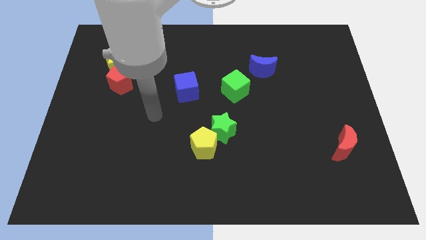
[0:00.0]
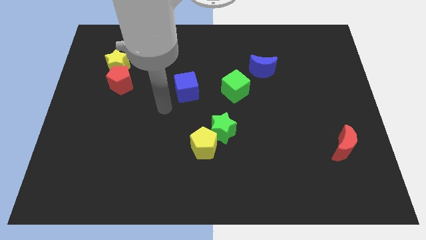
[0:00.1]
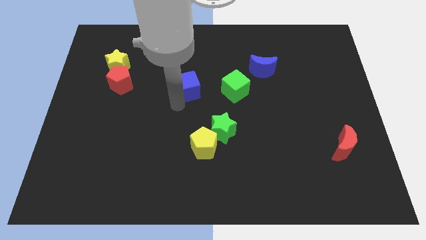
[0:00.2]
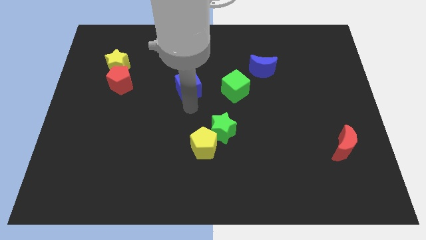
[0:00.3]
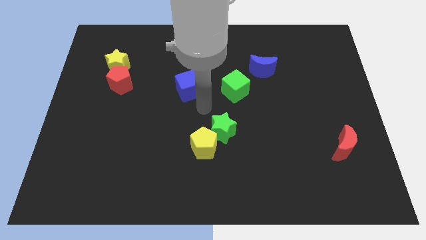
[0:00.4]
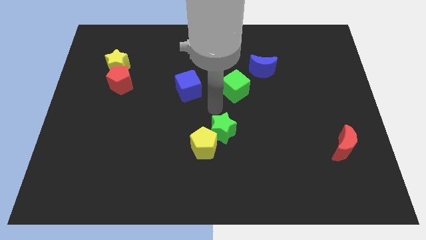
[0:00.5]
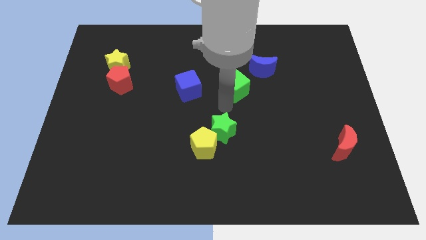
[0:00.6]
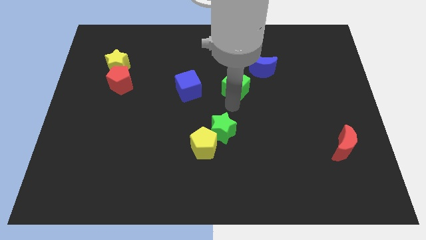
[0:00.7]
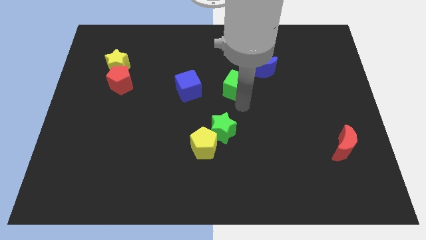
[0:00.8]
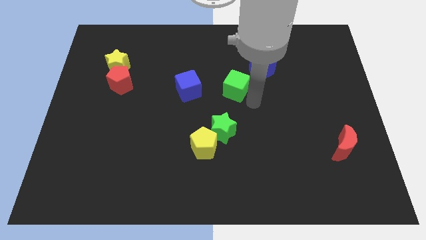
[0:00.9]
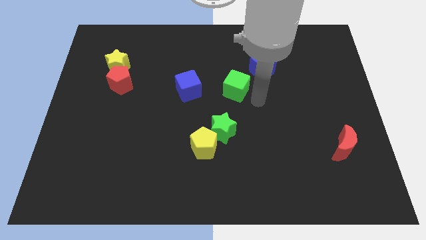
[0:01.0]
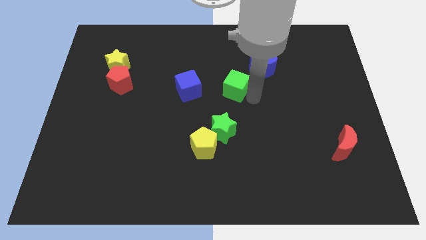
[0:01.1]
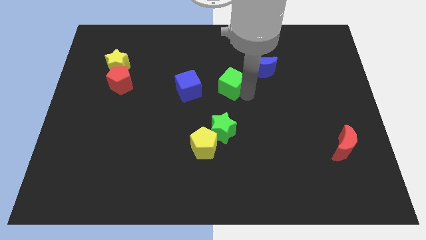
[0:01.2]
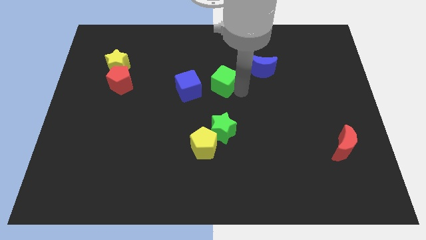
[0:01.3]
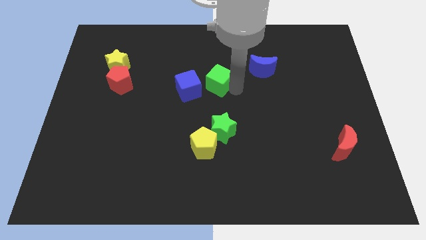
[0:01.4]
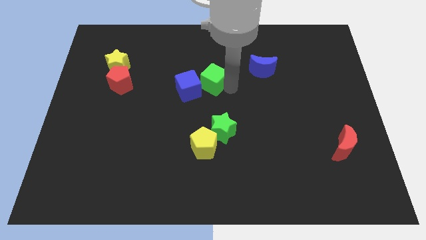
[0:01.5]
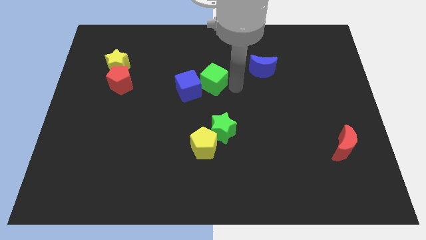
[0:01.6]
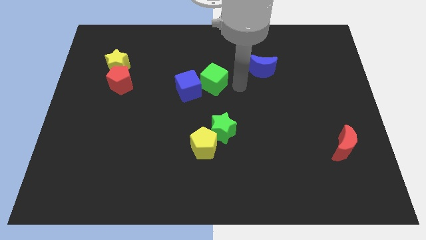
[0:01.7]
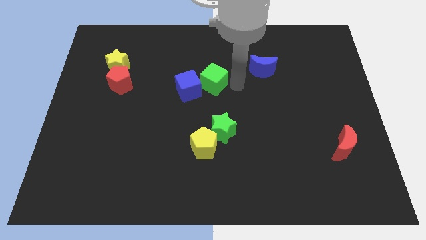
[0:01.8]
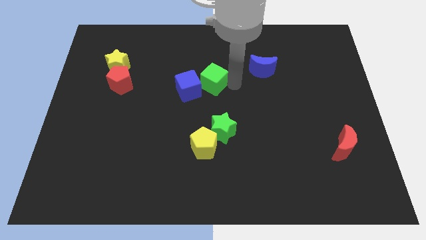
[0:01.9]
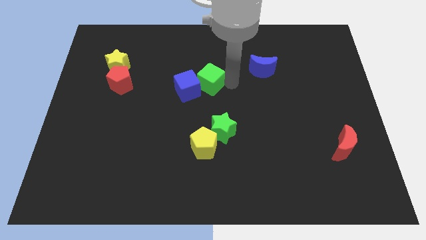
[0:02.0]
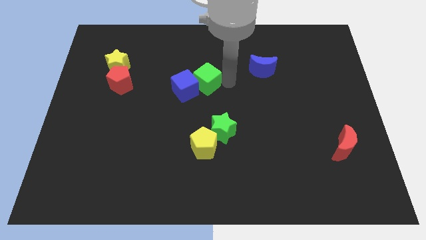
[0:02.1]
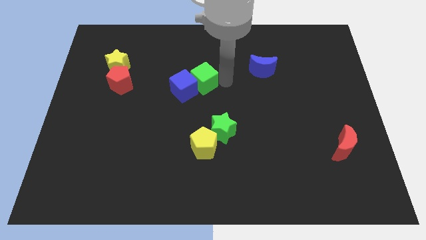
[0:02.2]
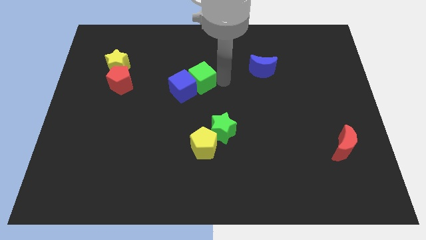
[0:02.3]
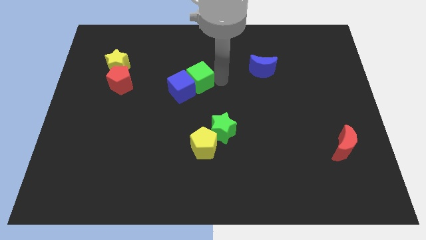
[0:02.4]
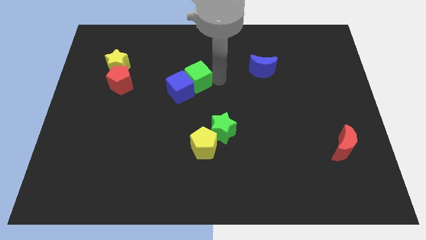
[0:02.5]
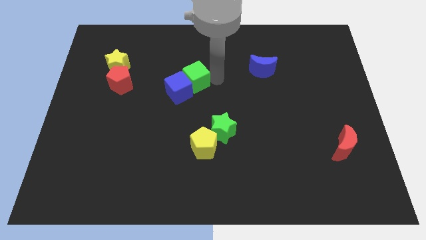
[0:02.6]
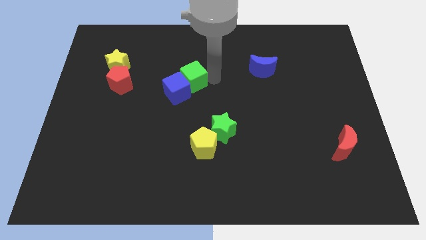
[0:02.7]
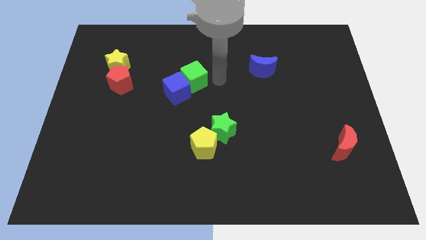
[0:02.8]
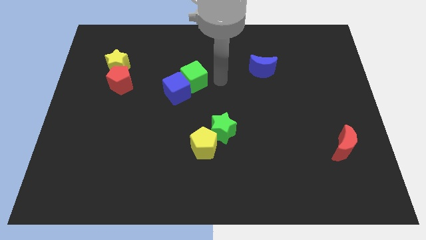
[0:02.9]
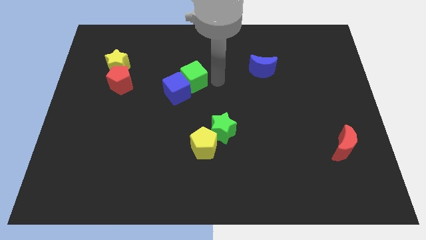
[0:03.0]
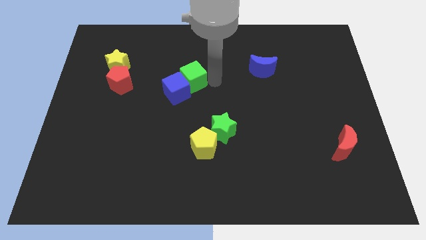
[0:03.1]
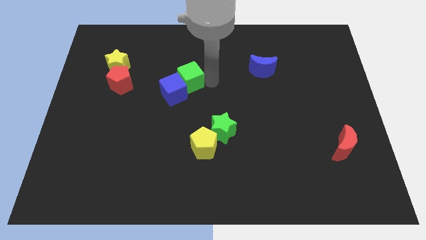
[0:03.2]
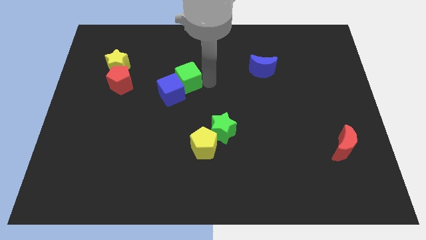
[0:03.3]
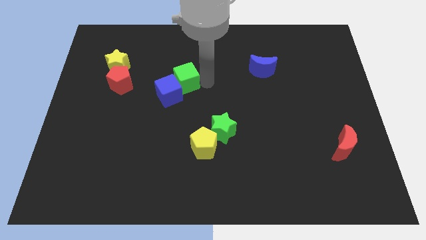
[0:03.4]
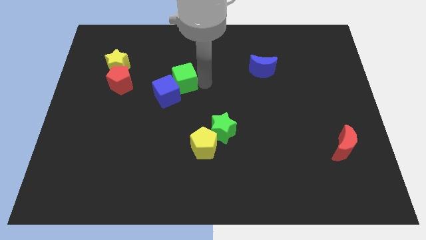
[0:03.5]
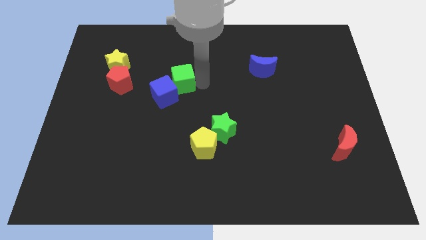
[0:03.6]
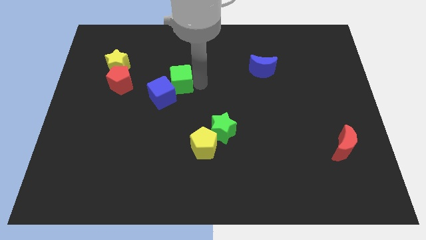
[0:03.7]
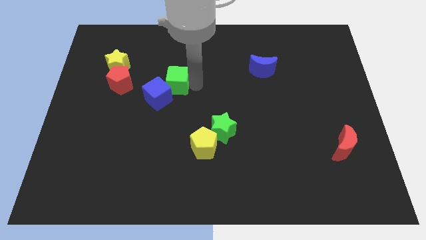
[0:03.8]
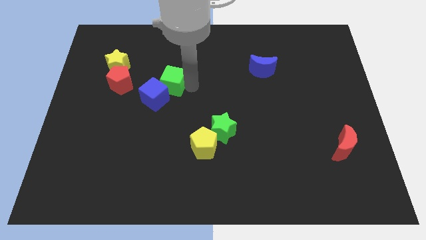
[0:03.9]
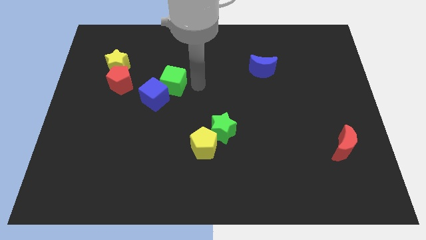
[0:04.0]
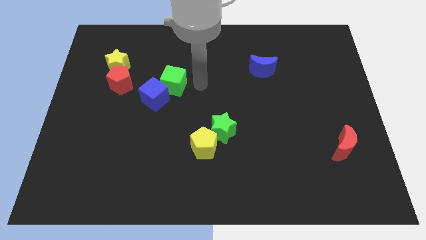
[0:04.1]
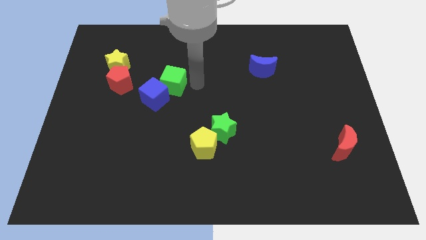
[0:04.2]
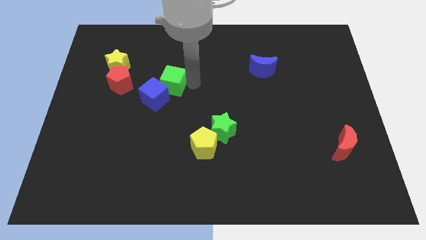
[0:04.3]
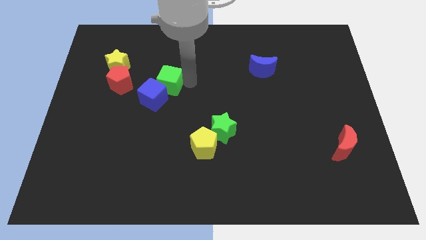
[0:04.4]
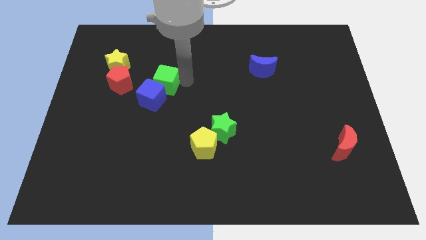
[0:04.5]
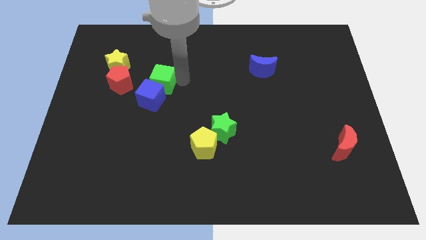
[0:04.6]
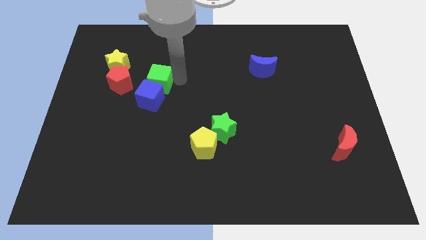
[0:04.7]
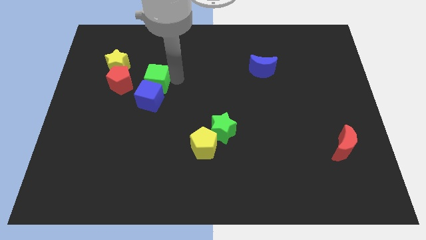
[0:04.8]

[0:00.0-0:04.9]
put the green cube to the bottom right of the yellow star

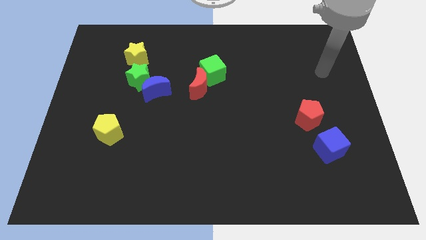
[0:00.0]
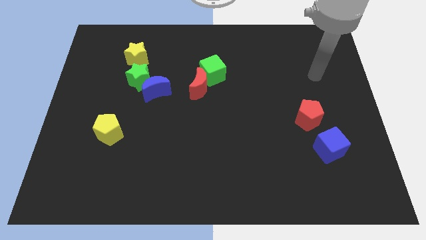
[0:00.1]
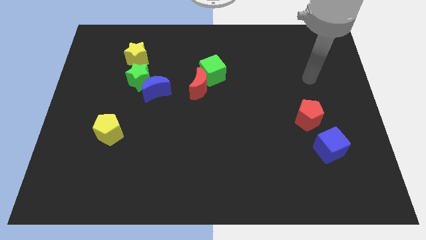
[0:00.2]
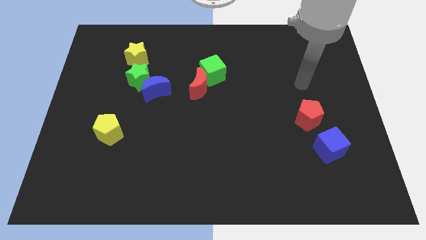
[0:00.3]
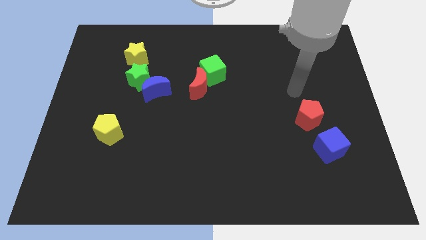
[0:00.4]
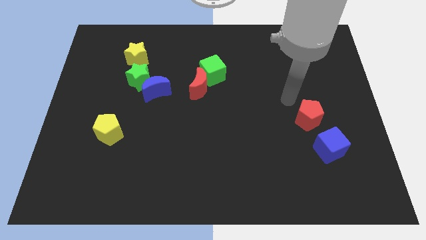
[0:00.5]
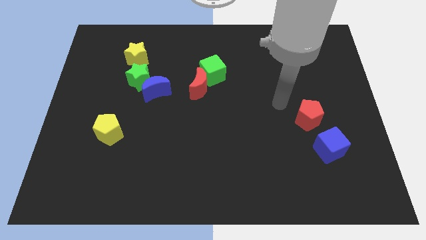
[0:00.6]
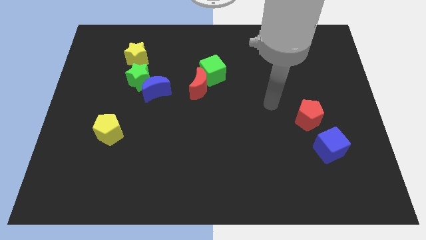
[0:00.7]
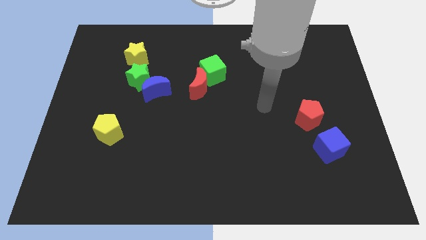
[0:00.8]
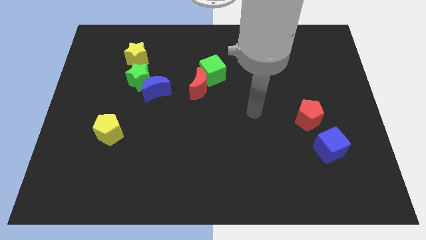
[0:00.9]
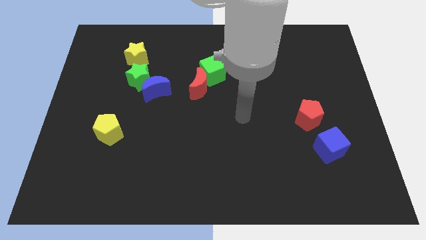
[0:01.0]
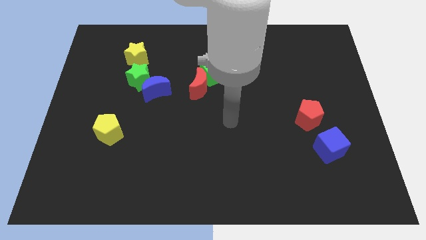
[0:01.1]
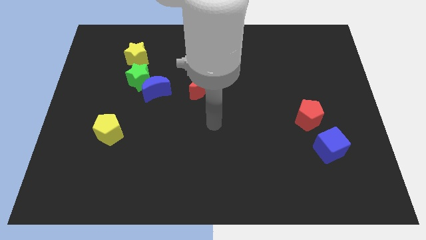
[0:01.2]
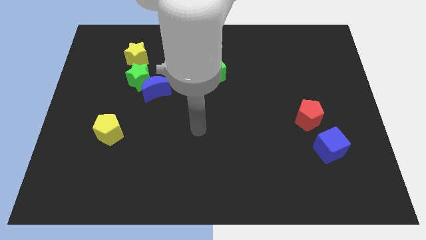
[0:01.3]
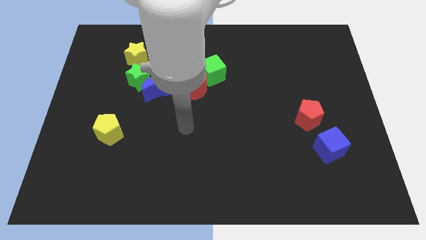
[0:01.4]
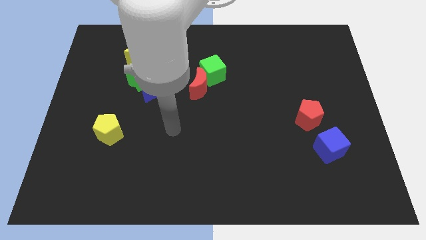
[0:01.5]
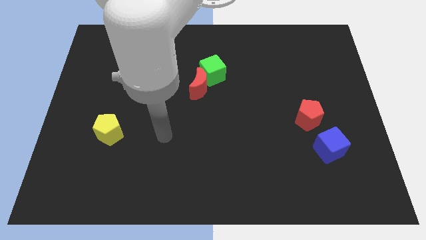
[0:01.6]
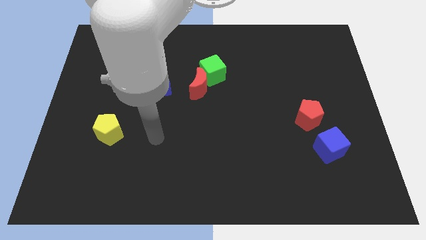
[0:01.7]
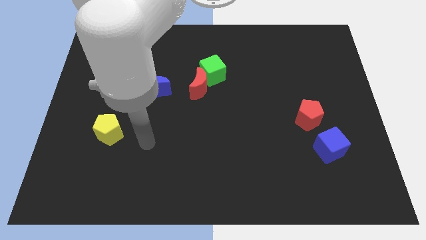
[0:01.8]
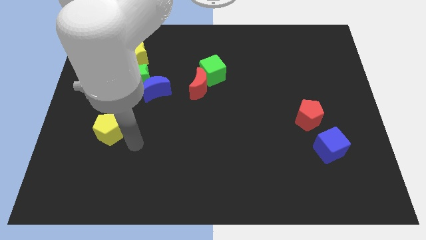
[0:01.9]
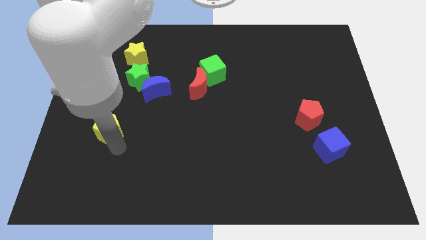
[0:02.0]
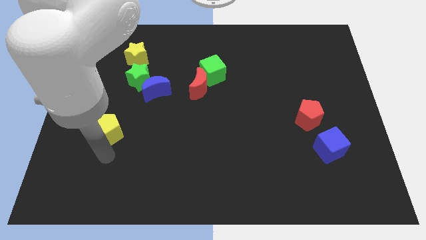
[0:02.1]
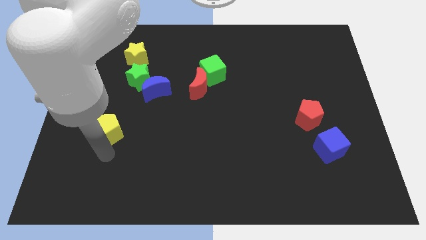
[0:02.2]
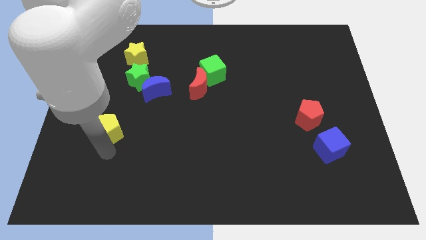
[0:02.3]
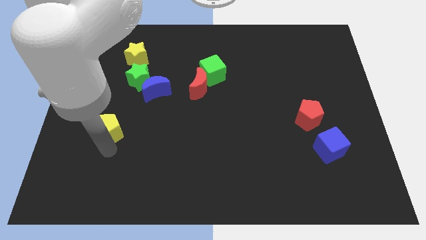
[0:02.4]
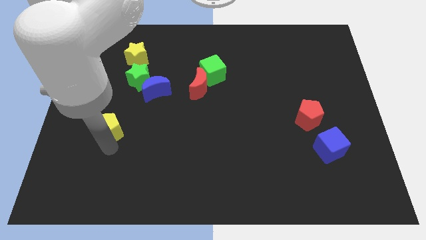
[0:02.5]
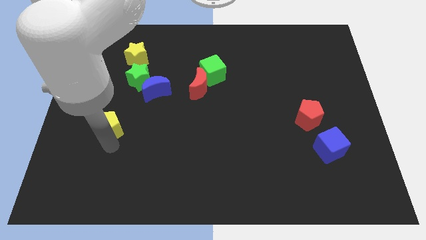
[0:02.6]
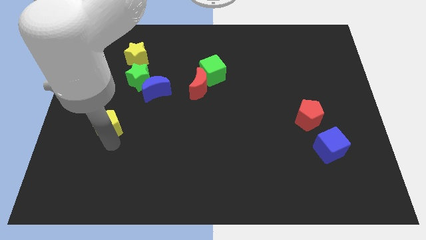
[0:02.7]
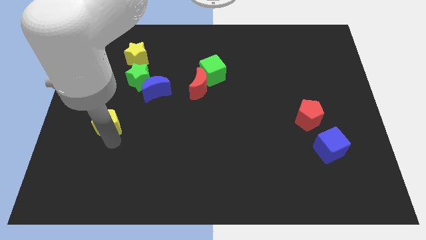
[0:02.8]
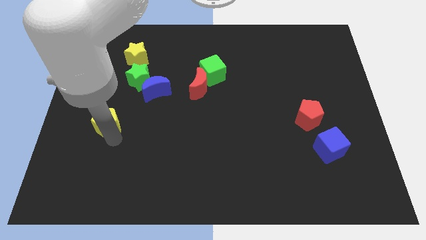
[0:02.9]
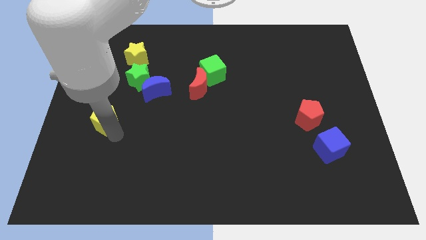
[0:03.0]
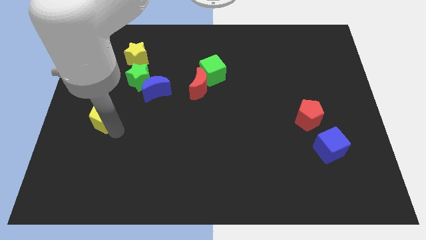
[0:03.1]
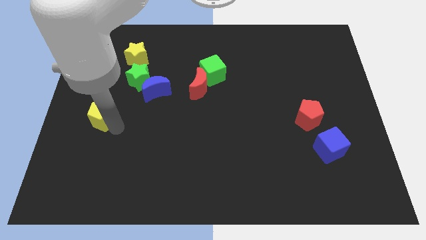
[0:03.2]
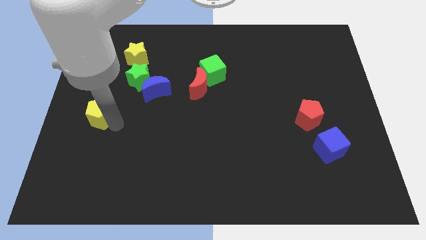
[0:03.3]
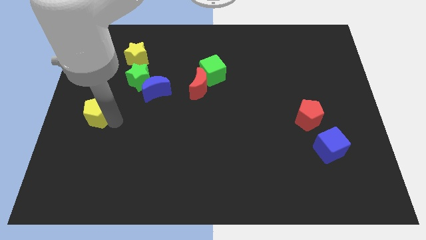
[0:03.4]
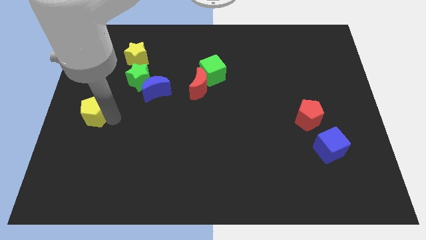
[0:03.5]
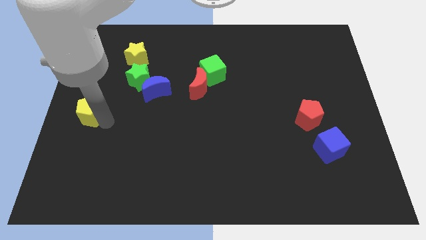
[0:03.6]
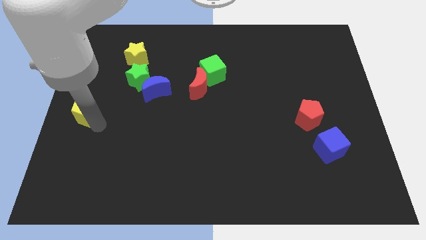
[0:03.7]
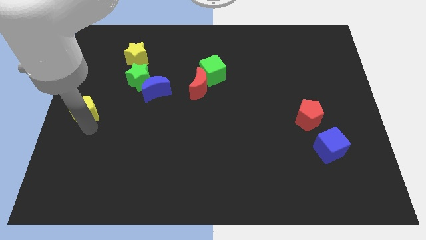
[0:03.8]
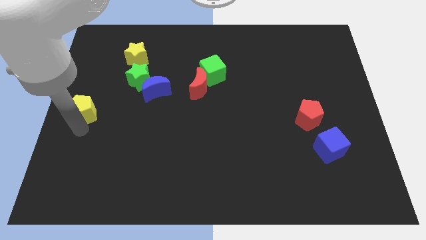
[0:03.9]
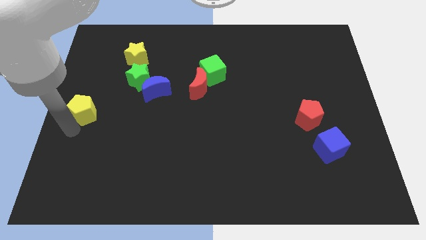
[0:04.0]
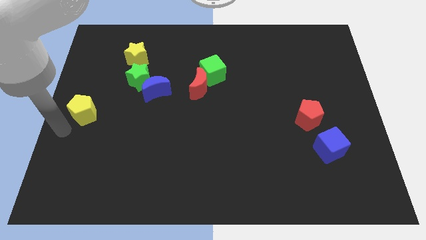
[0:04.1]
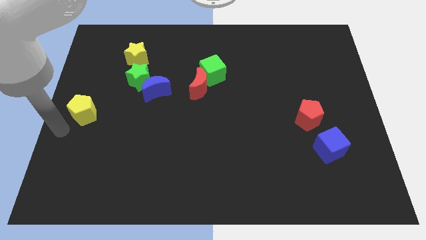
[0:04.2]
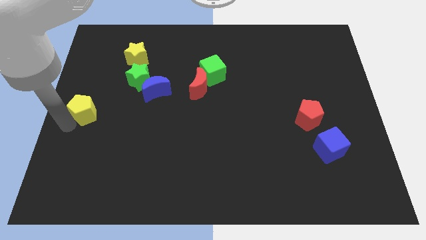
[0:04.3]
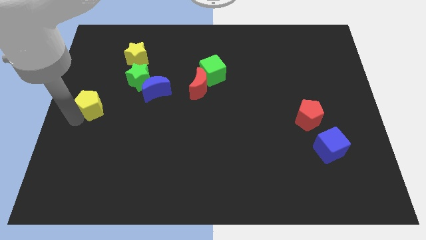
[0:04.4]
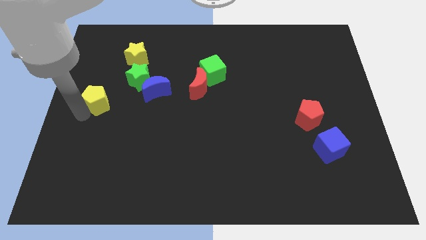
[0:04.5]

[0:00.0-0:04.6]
slide the yellow pentagon to the left side of the blue moon
